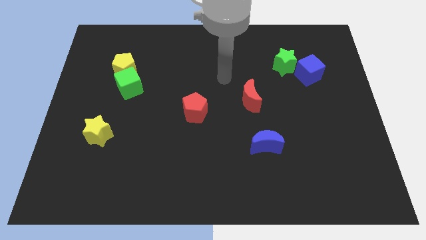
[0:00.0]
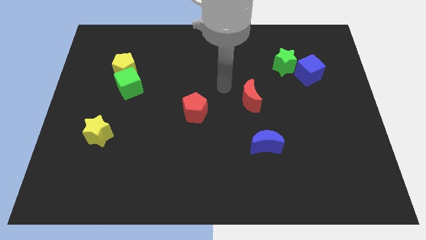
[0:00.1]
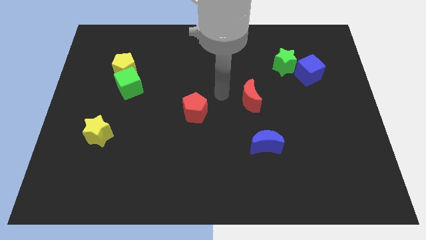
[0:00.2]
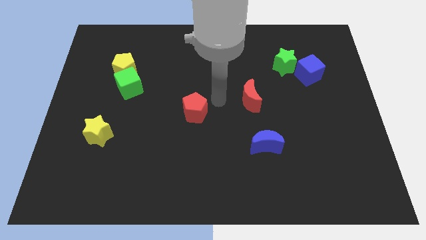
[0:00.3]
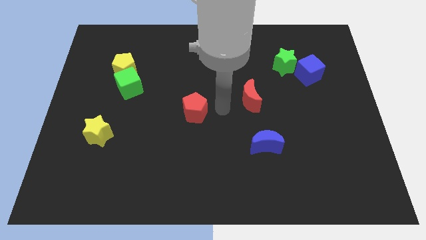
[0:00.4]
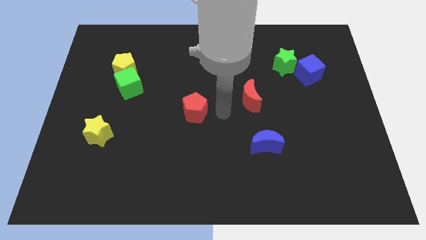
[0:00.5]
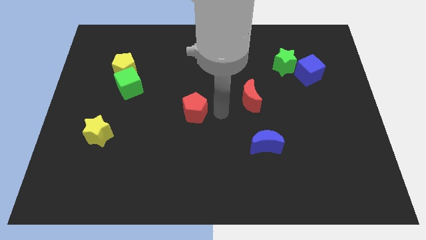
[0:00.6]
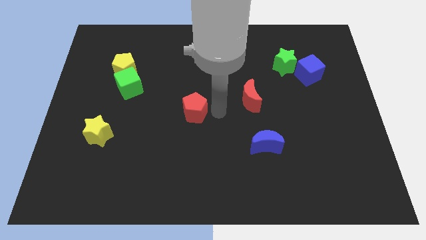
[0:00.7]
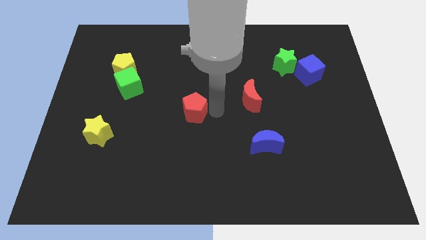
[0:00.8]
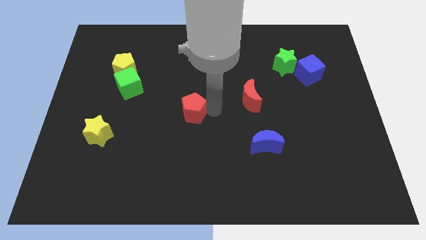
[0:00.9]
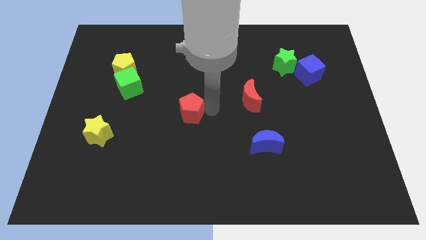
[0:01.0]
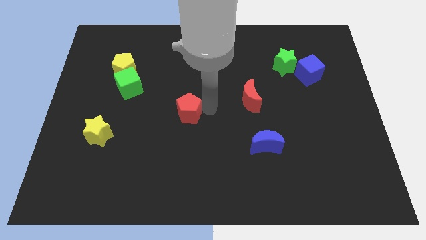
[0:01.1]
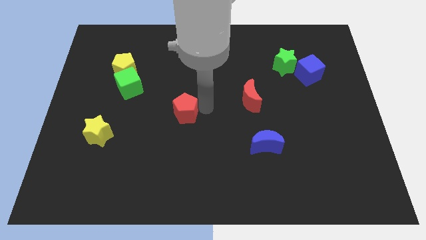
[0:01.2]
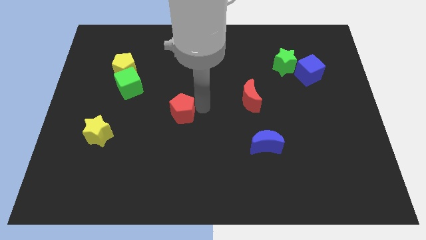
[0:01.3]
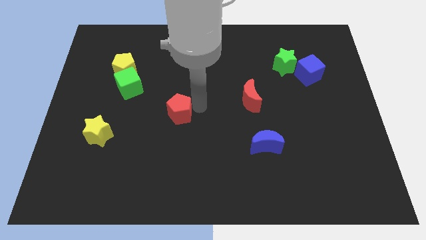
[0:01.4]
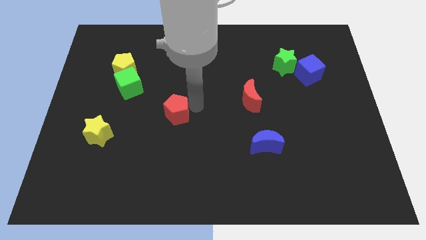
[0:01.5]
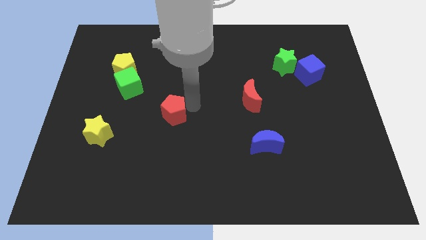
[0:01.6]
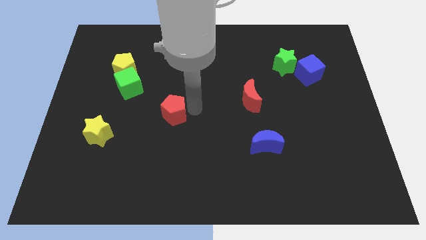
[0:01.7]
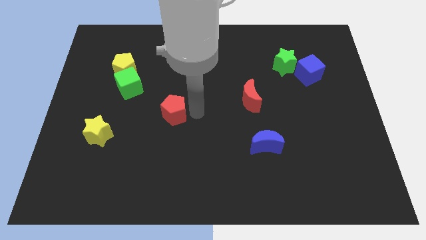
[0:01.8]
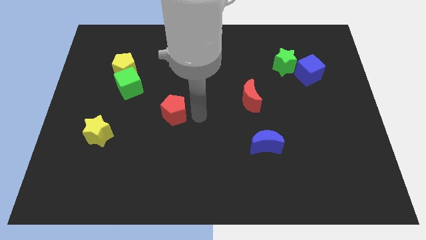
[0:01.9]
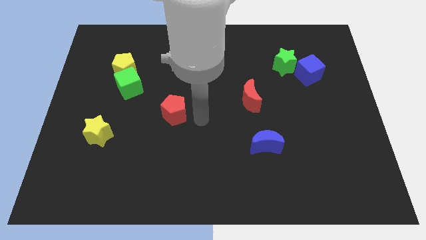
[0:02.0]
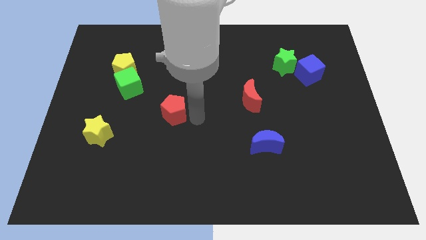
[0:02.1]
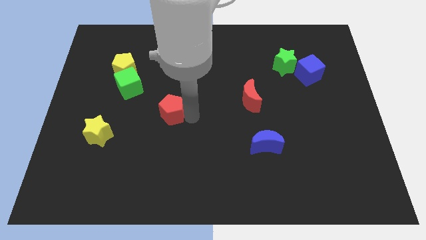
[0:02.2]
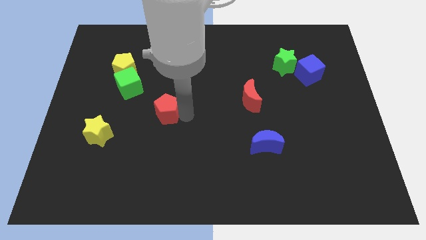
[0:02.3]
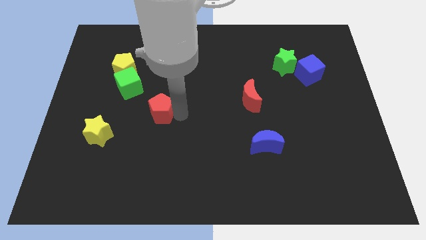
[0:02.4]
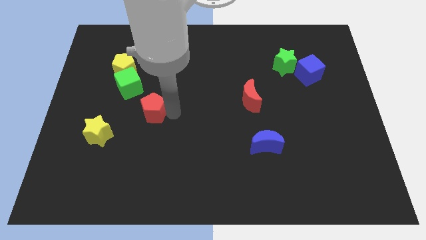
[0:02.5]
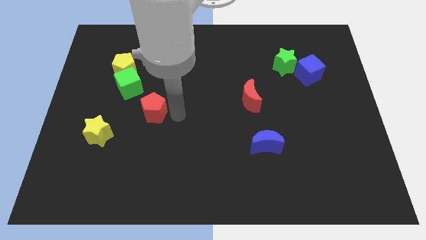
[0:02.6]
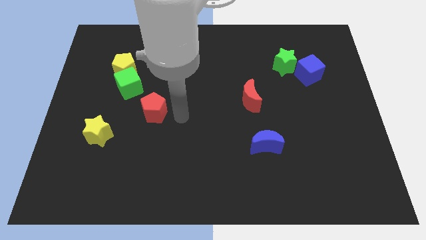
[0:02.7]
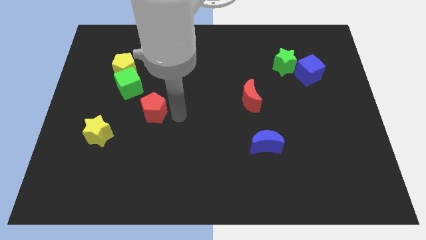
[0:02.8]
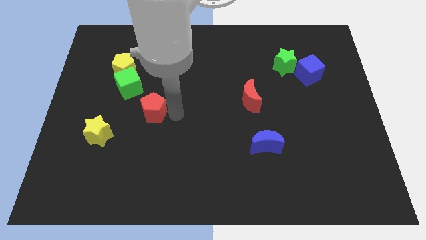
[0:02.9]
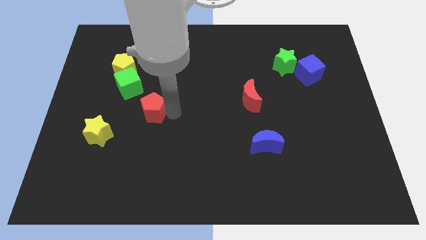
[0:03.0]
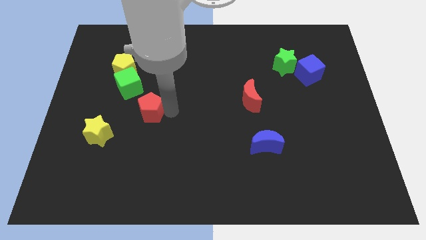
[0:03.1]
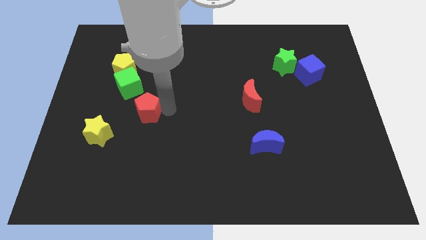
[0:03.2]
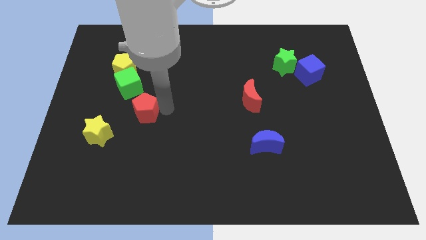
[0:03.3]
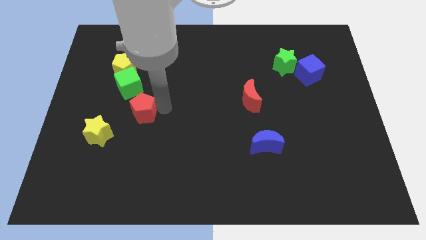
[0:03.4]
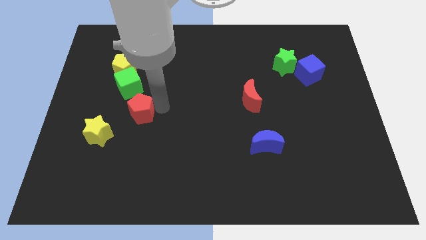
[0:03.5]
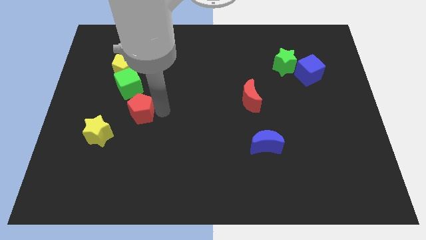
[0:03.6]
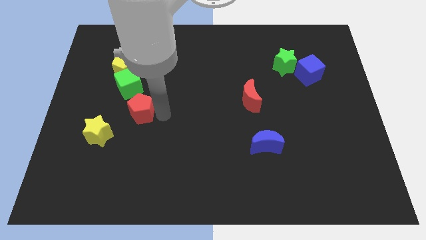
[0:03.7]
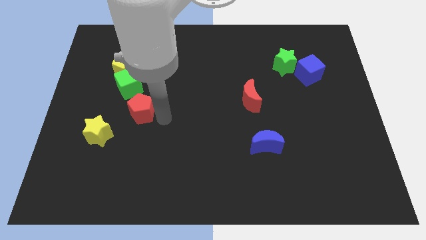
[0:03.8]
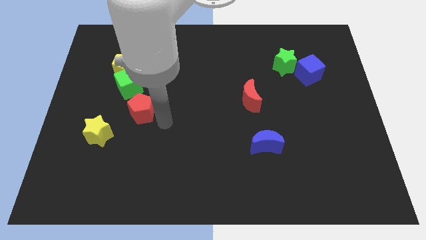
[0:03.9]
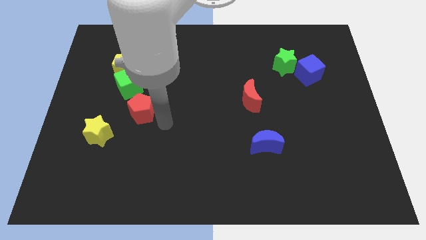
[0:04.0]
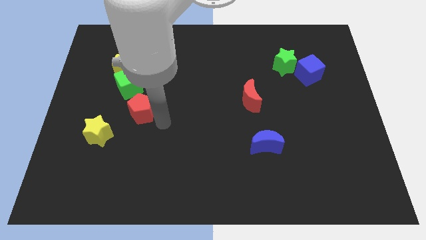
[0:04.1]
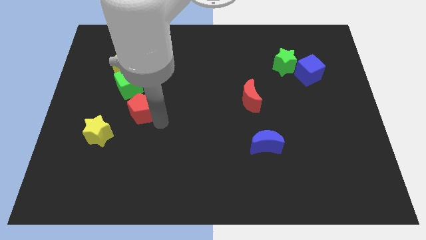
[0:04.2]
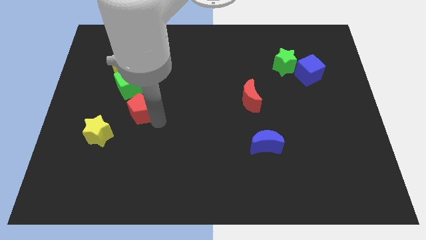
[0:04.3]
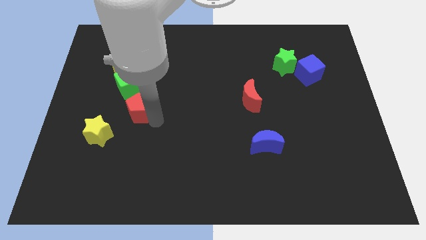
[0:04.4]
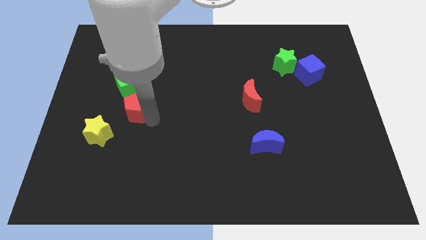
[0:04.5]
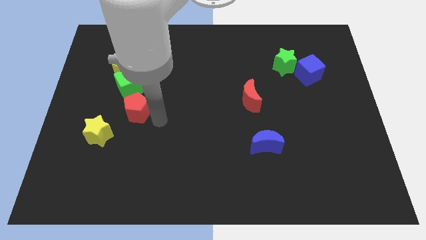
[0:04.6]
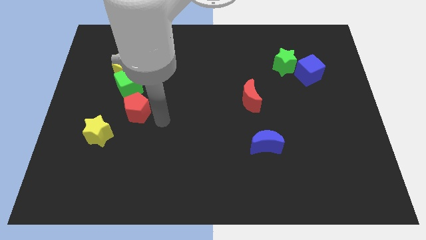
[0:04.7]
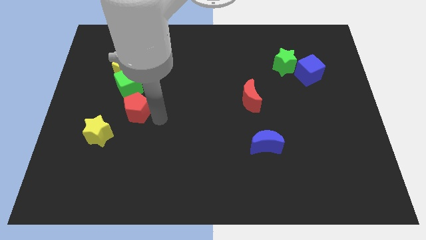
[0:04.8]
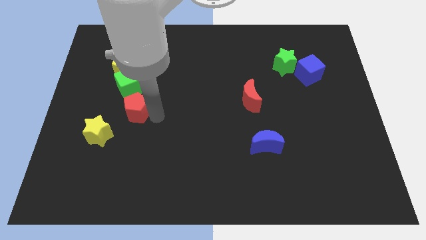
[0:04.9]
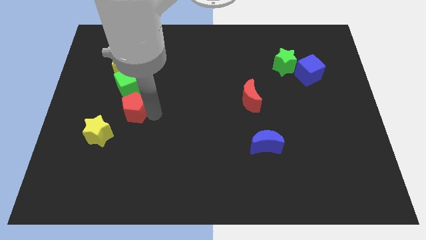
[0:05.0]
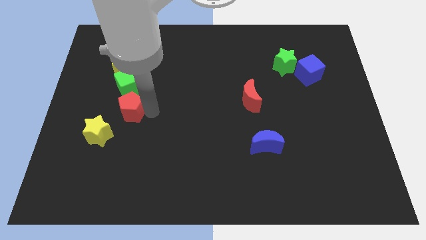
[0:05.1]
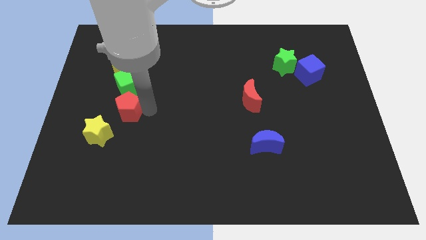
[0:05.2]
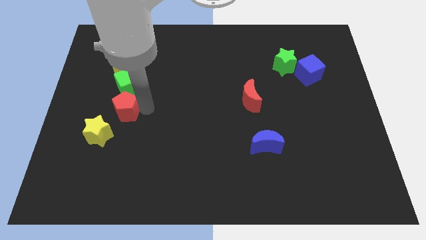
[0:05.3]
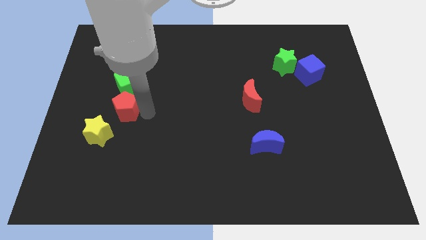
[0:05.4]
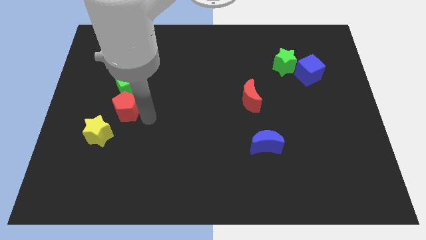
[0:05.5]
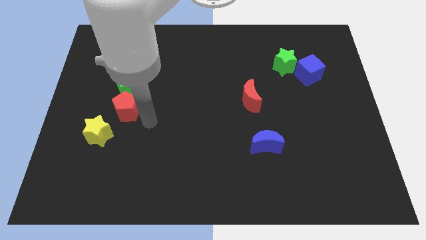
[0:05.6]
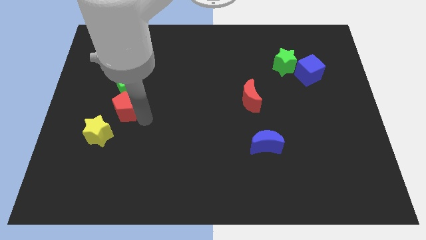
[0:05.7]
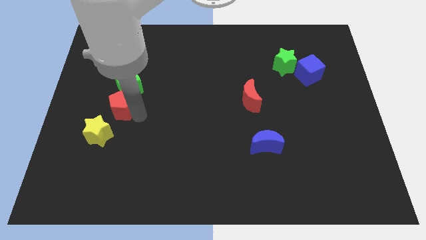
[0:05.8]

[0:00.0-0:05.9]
put the red pentagon to the top side of the yellow star

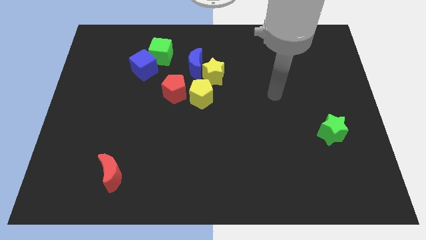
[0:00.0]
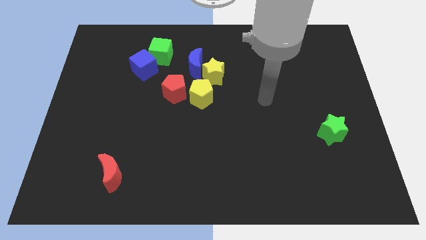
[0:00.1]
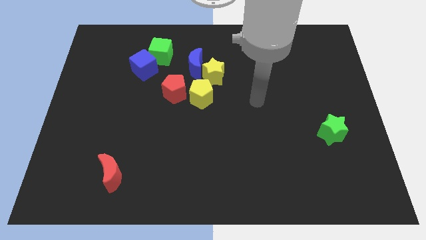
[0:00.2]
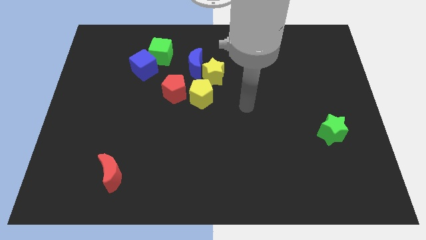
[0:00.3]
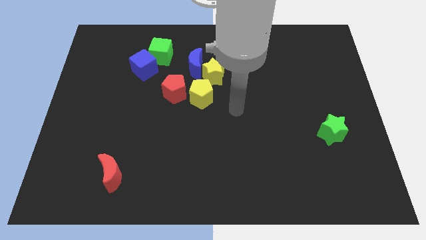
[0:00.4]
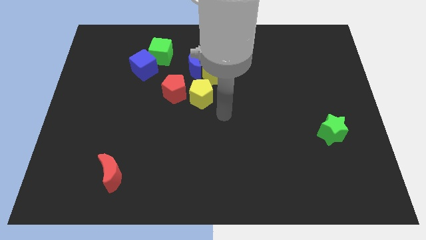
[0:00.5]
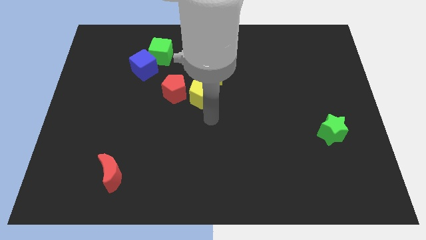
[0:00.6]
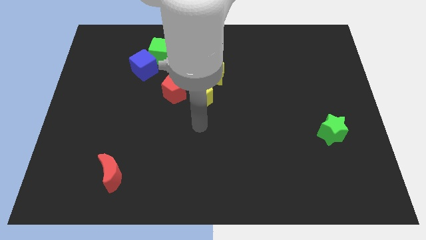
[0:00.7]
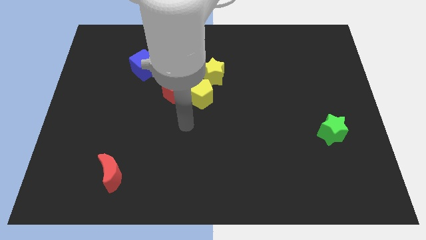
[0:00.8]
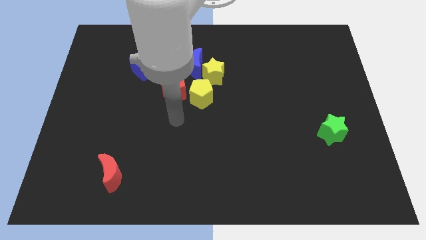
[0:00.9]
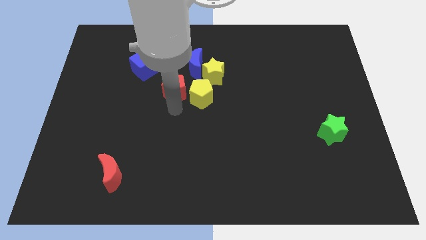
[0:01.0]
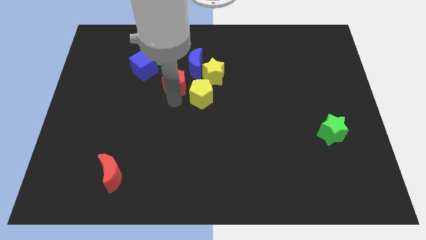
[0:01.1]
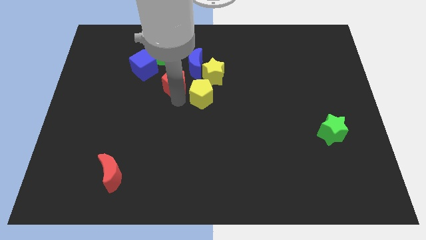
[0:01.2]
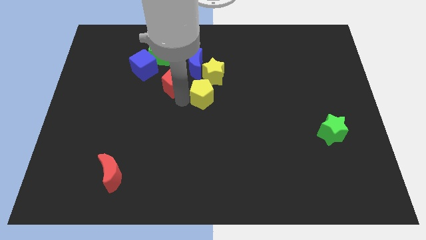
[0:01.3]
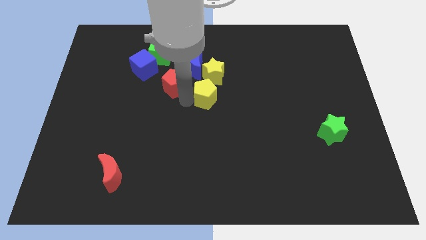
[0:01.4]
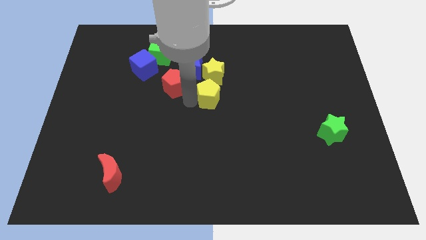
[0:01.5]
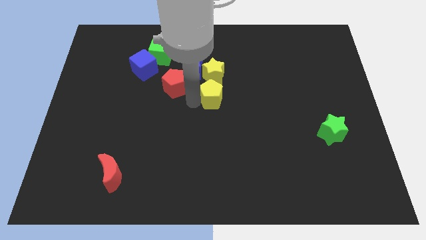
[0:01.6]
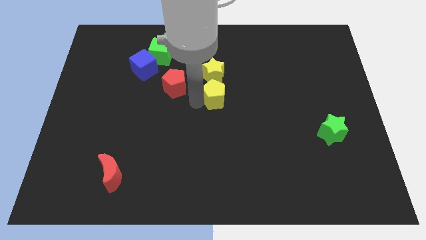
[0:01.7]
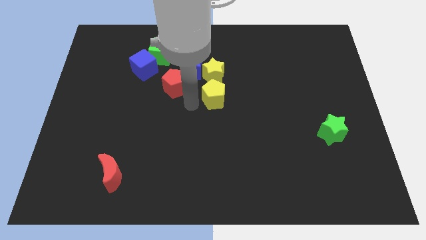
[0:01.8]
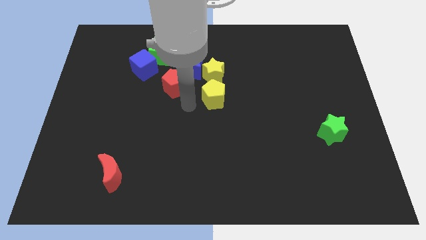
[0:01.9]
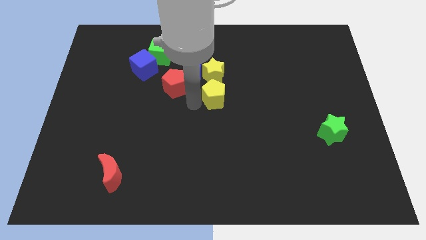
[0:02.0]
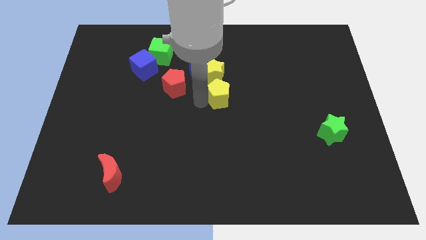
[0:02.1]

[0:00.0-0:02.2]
put the yellow pentagon diagonally down and to the right of the yellow star
